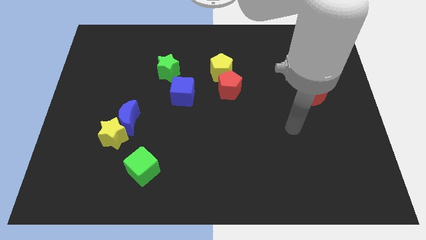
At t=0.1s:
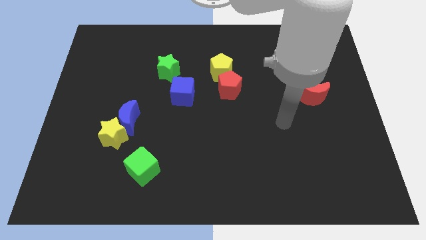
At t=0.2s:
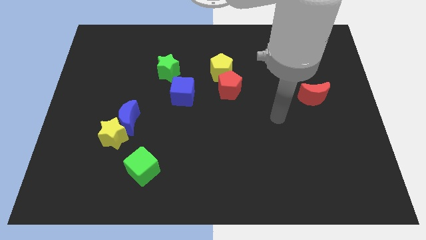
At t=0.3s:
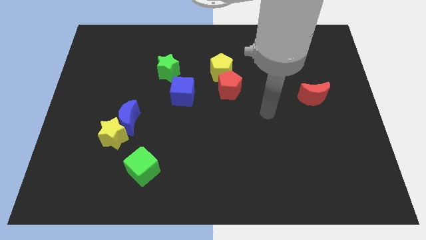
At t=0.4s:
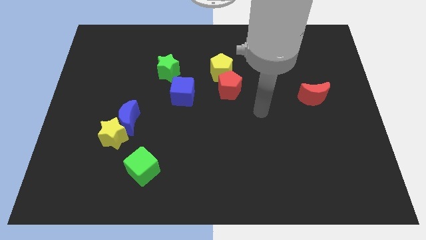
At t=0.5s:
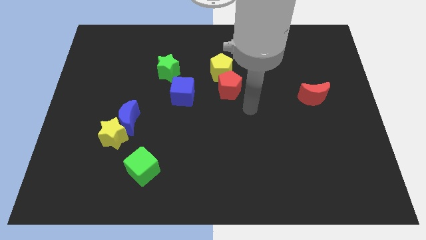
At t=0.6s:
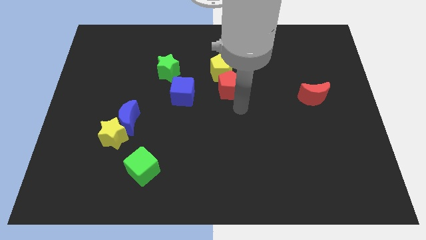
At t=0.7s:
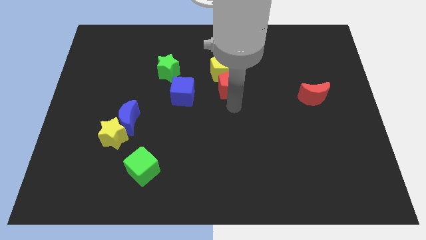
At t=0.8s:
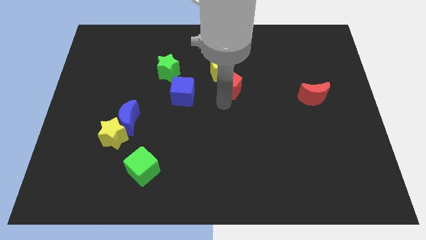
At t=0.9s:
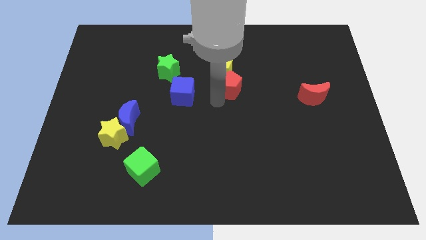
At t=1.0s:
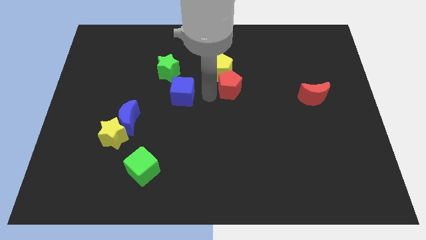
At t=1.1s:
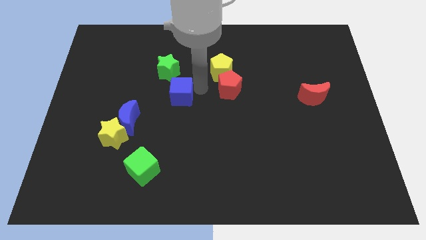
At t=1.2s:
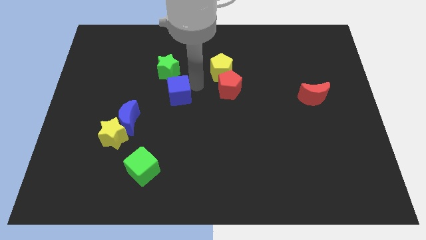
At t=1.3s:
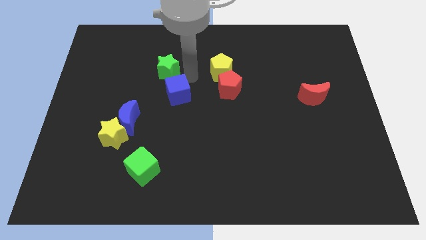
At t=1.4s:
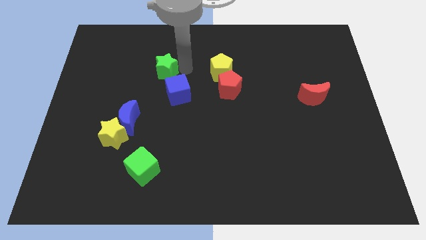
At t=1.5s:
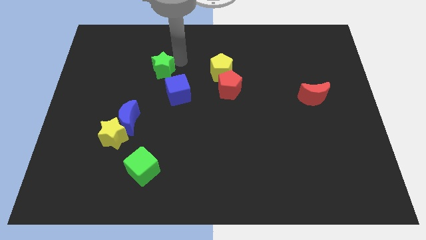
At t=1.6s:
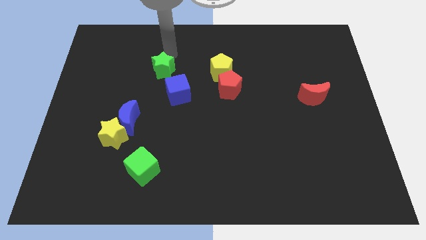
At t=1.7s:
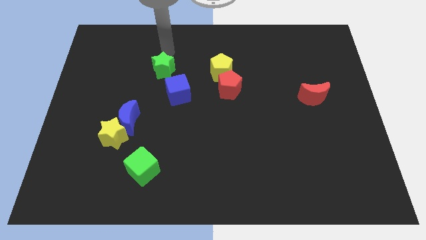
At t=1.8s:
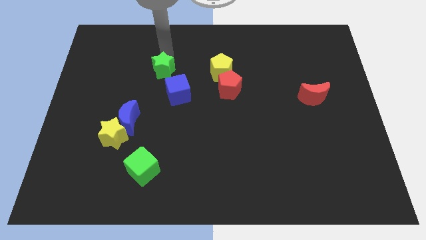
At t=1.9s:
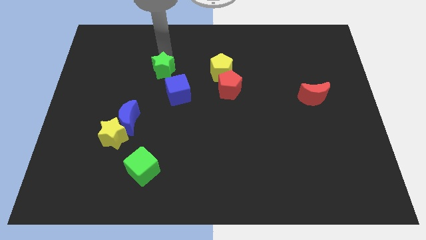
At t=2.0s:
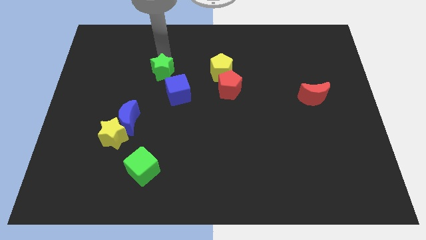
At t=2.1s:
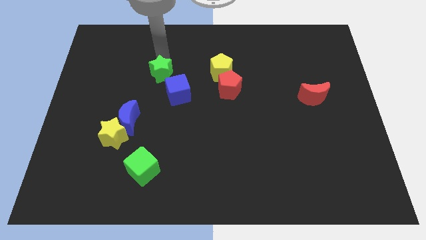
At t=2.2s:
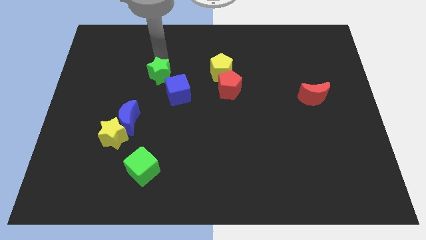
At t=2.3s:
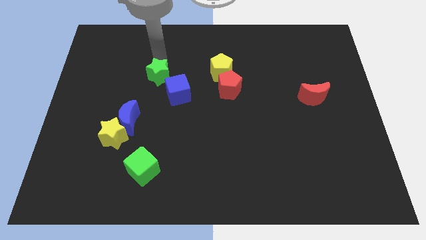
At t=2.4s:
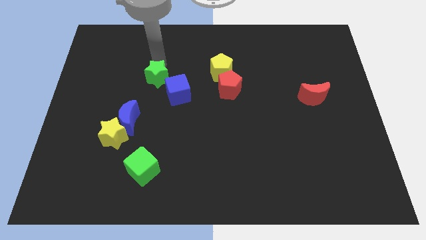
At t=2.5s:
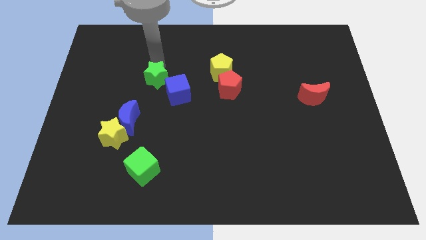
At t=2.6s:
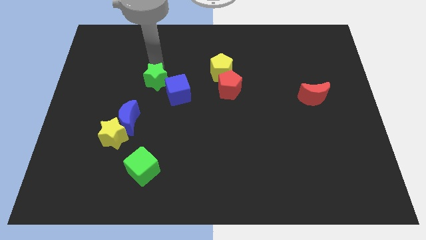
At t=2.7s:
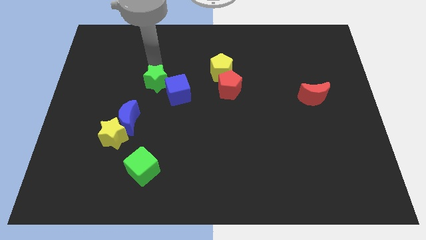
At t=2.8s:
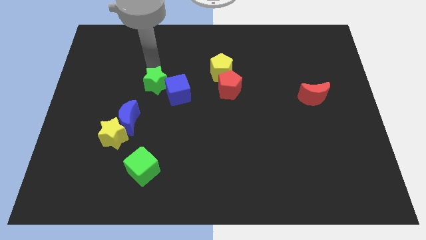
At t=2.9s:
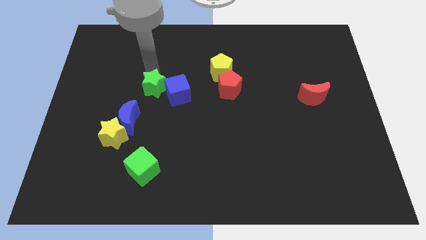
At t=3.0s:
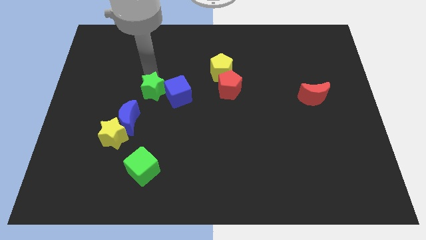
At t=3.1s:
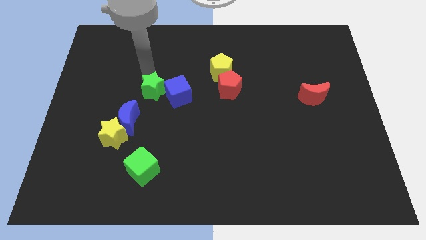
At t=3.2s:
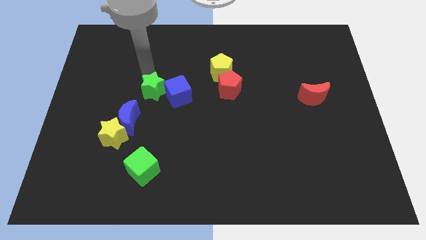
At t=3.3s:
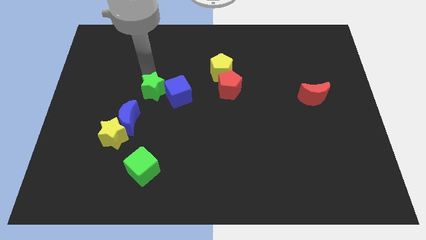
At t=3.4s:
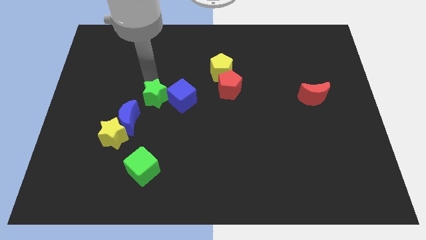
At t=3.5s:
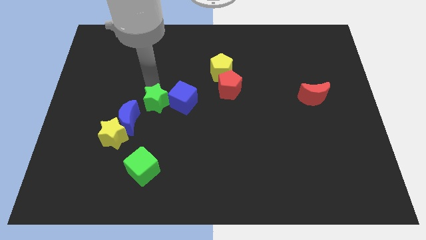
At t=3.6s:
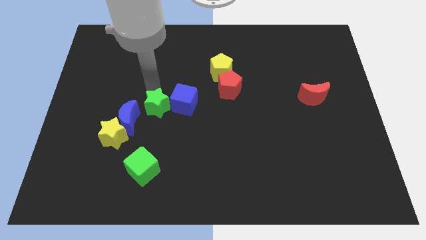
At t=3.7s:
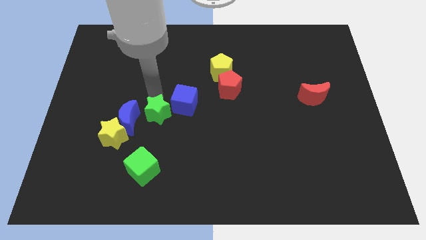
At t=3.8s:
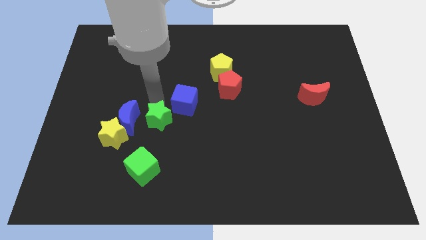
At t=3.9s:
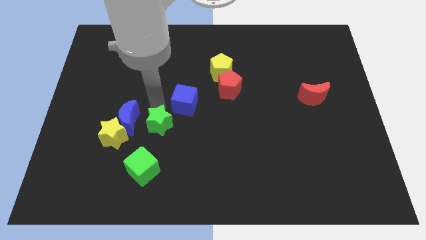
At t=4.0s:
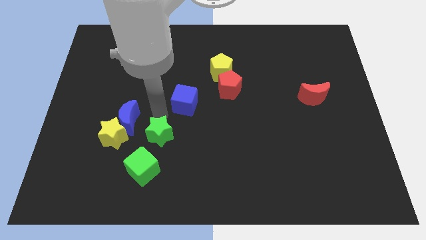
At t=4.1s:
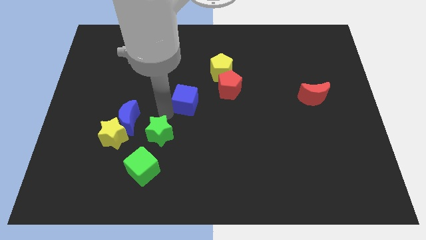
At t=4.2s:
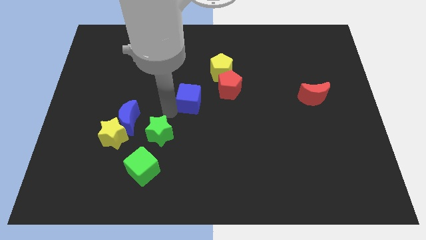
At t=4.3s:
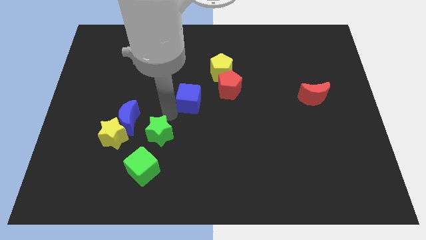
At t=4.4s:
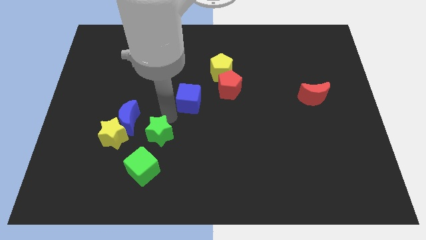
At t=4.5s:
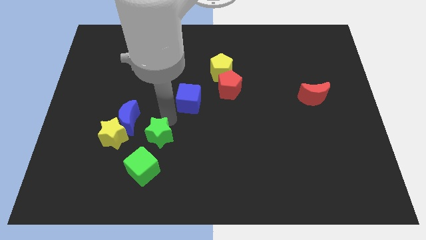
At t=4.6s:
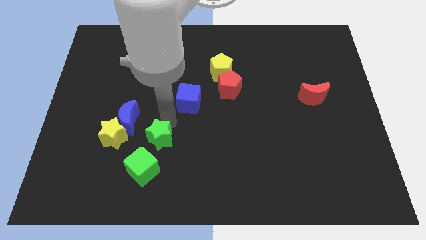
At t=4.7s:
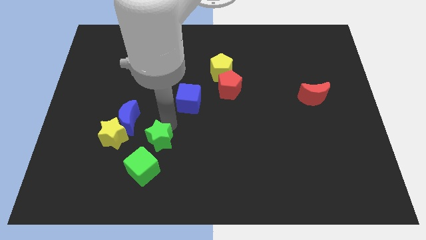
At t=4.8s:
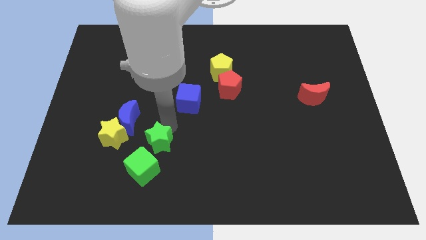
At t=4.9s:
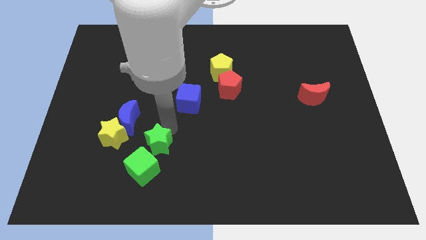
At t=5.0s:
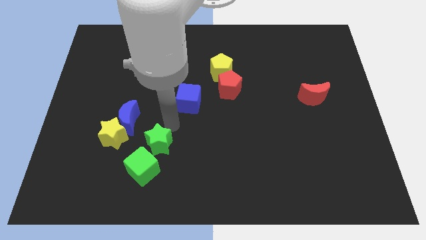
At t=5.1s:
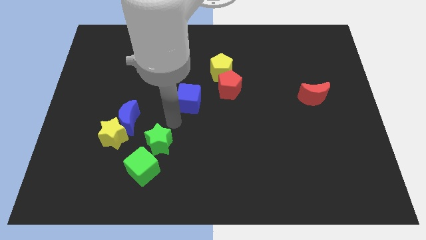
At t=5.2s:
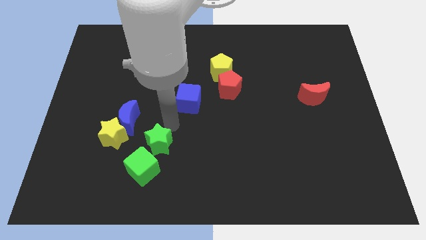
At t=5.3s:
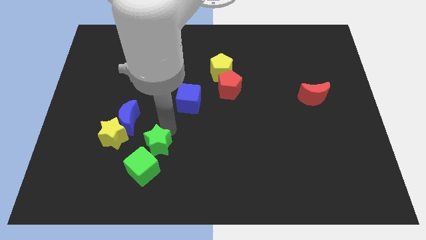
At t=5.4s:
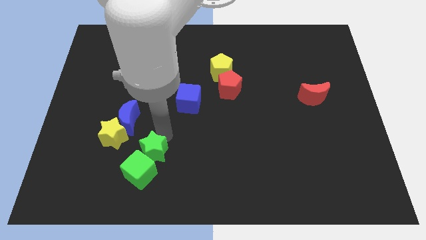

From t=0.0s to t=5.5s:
slide the green star towards the green cube

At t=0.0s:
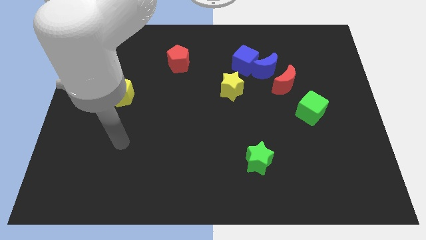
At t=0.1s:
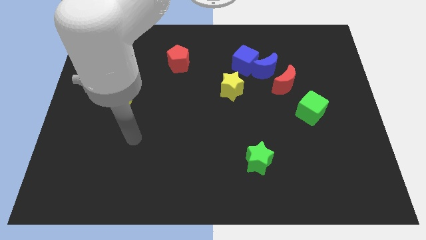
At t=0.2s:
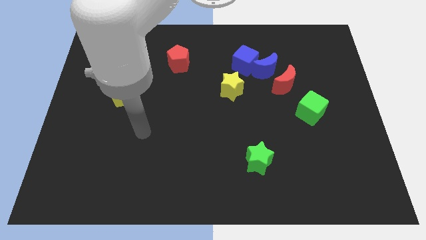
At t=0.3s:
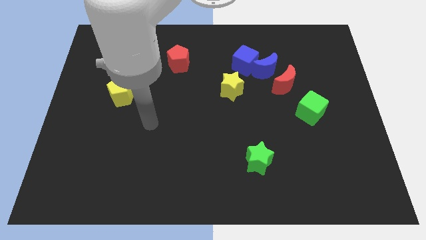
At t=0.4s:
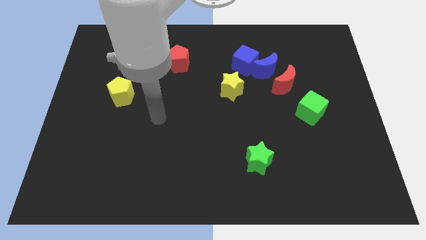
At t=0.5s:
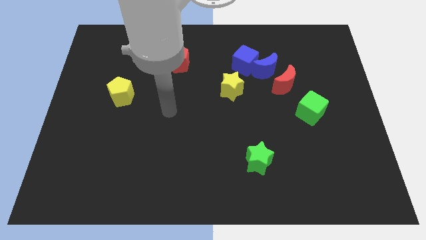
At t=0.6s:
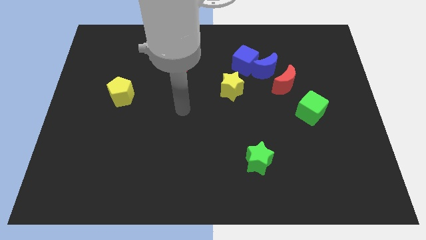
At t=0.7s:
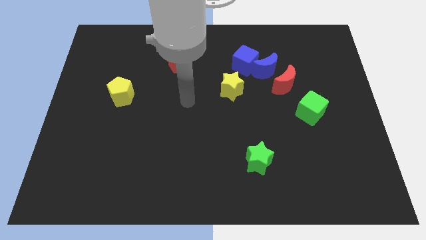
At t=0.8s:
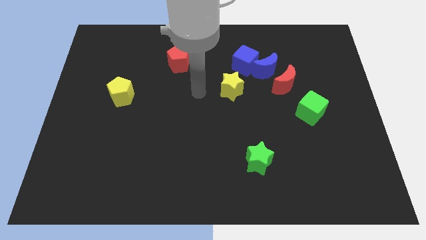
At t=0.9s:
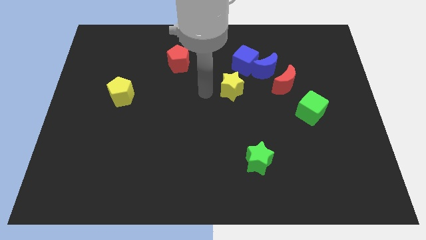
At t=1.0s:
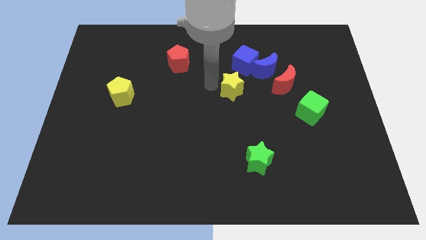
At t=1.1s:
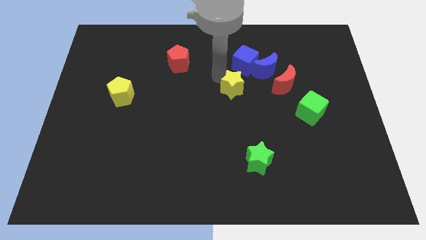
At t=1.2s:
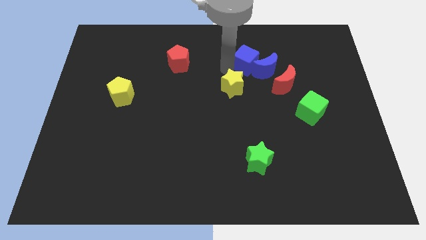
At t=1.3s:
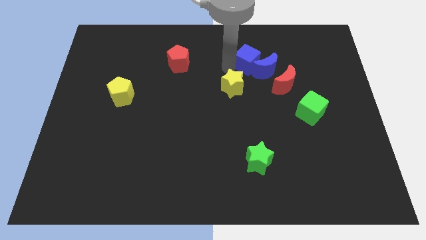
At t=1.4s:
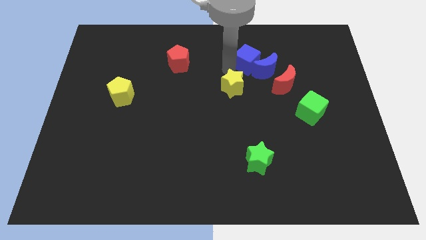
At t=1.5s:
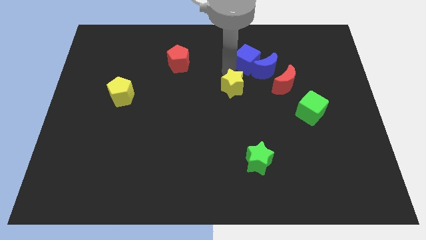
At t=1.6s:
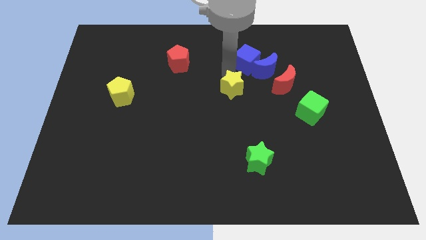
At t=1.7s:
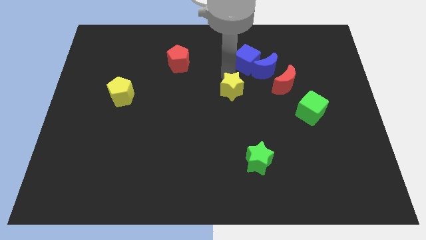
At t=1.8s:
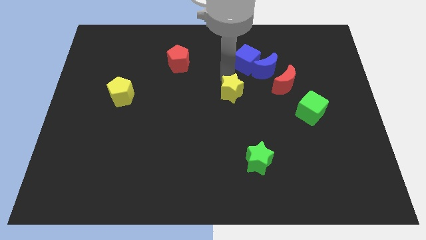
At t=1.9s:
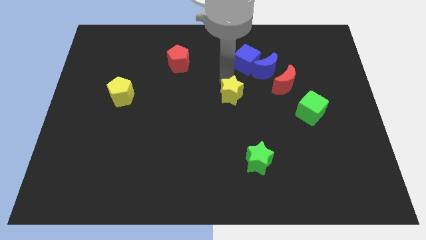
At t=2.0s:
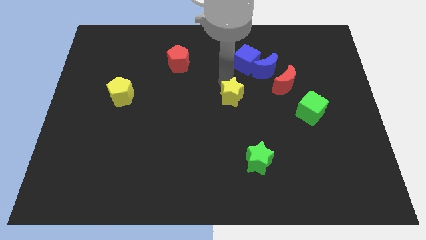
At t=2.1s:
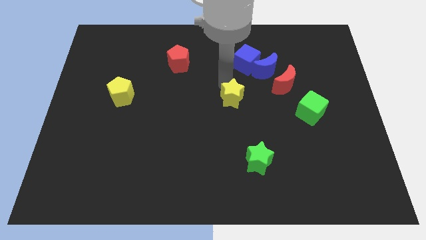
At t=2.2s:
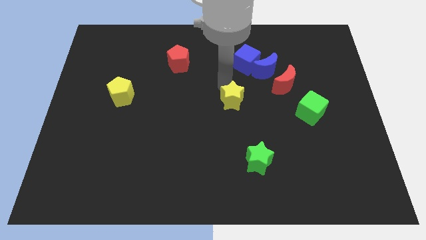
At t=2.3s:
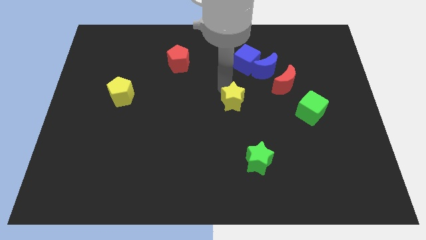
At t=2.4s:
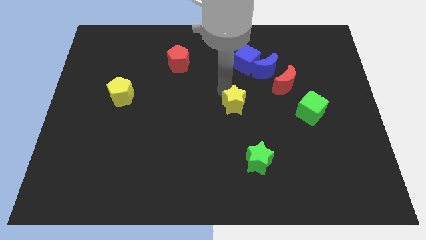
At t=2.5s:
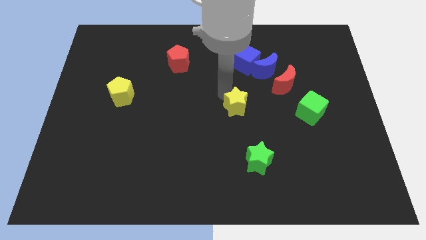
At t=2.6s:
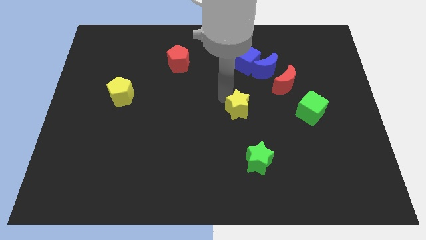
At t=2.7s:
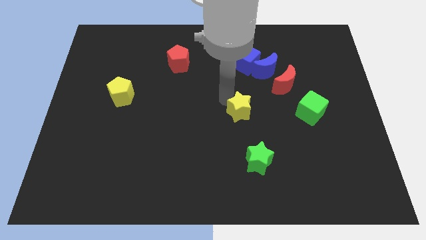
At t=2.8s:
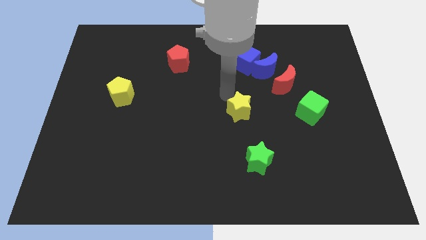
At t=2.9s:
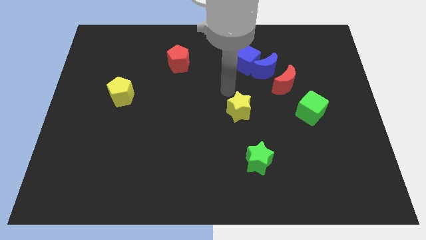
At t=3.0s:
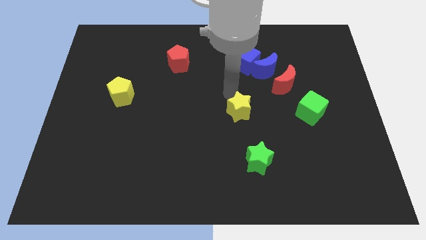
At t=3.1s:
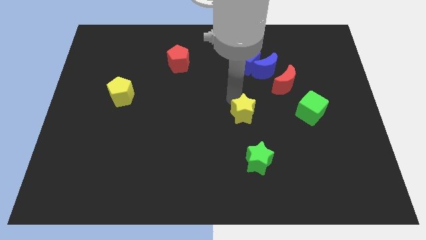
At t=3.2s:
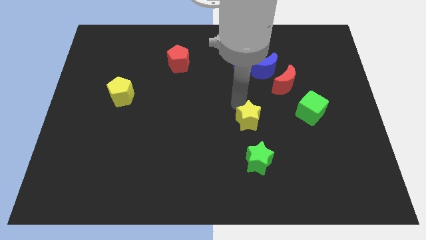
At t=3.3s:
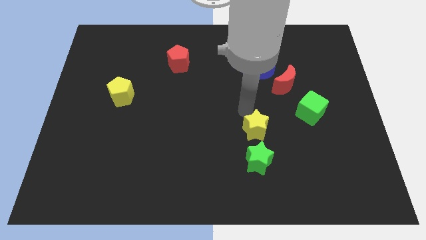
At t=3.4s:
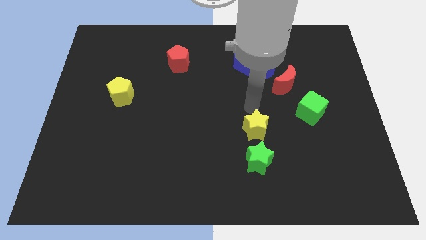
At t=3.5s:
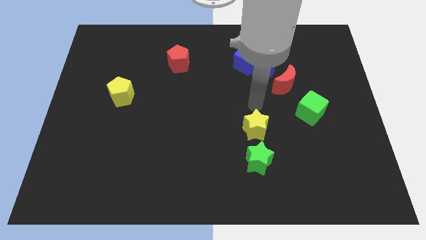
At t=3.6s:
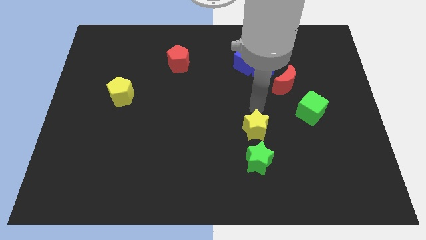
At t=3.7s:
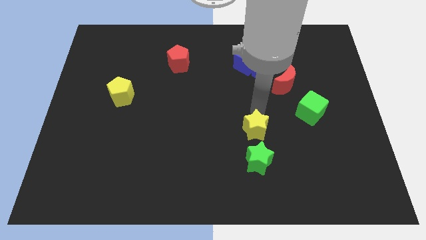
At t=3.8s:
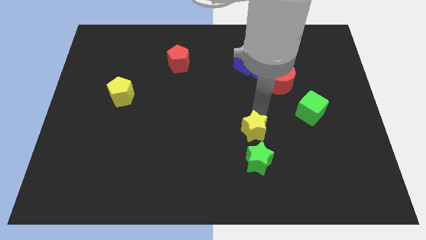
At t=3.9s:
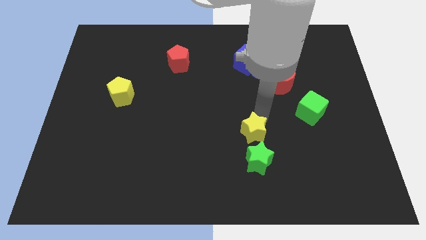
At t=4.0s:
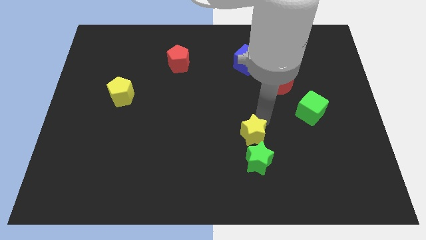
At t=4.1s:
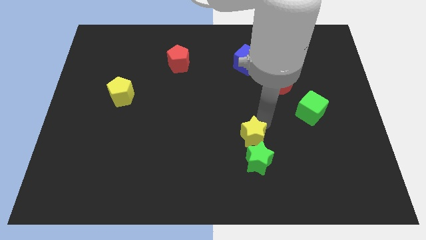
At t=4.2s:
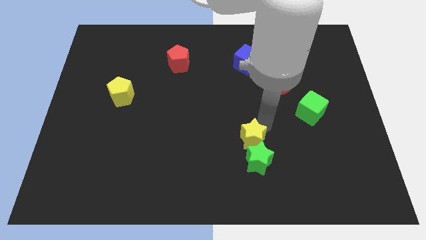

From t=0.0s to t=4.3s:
push the yellow star to the green star
